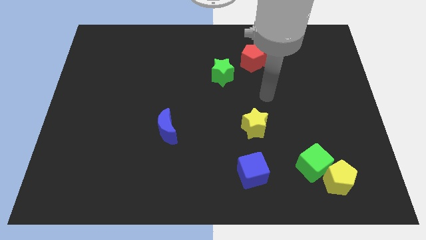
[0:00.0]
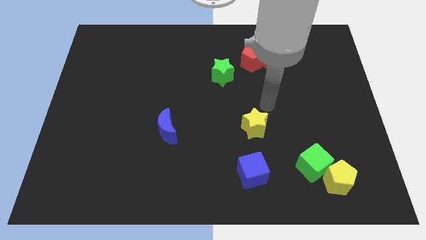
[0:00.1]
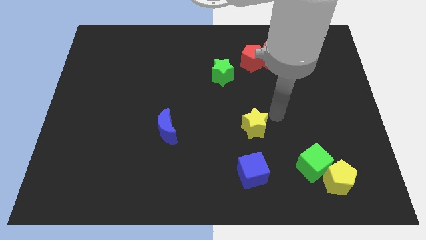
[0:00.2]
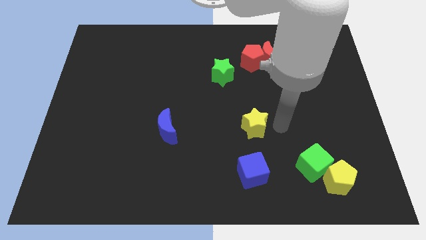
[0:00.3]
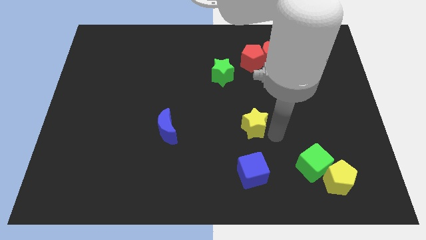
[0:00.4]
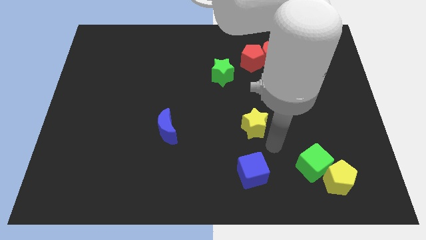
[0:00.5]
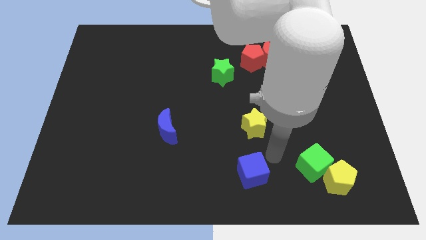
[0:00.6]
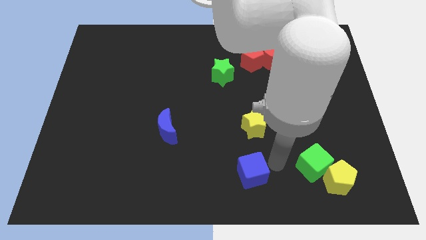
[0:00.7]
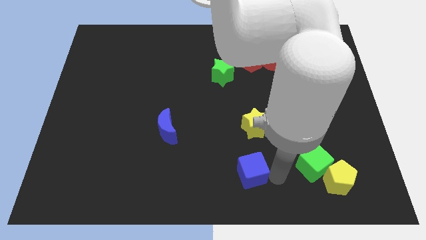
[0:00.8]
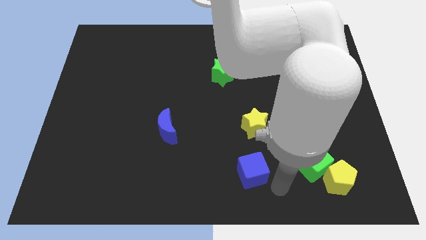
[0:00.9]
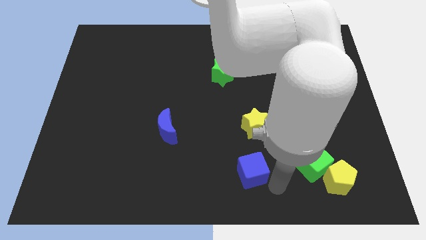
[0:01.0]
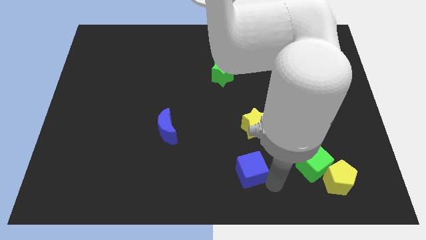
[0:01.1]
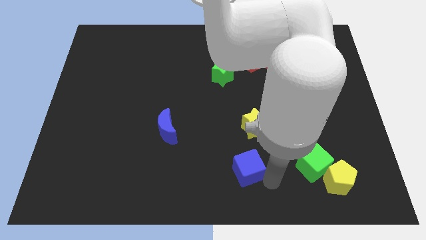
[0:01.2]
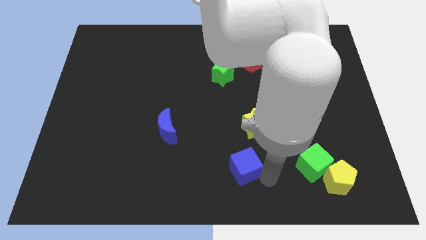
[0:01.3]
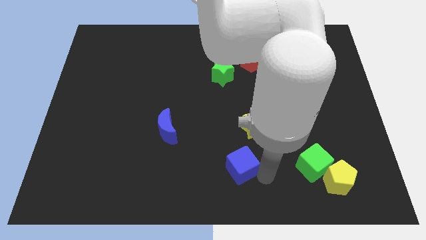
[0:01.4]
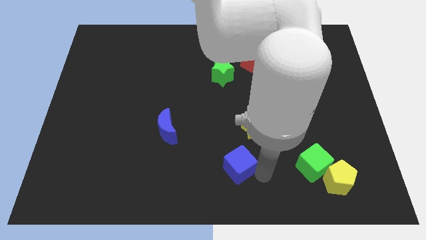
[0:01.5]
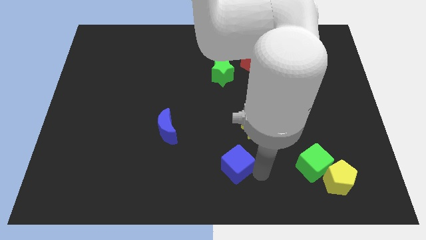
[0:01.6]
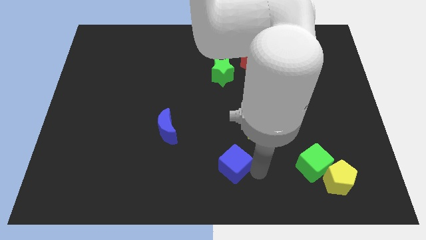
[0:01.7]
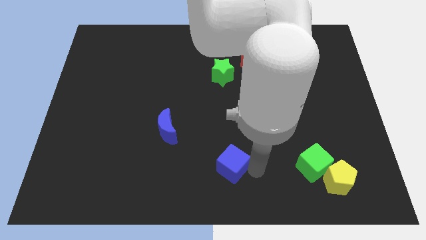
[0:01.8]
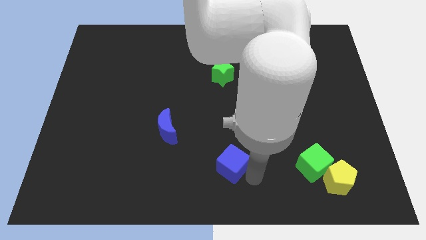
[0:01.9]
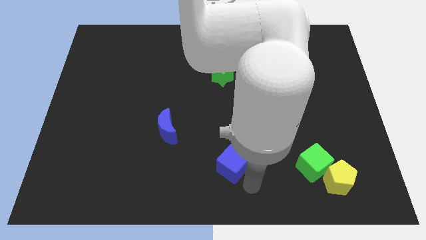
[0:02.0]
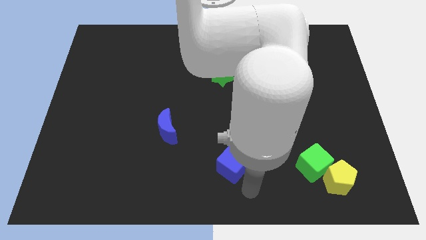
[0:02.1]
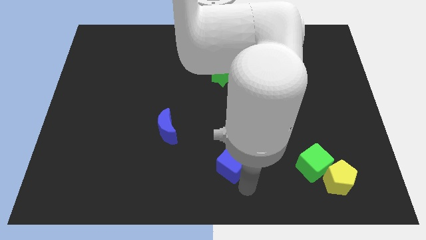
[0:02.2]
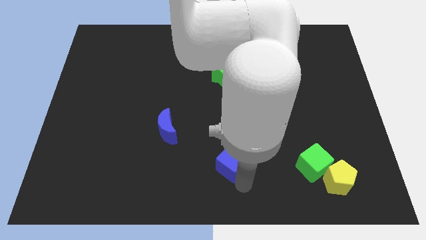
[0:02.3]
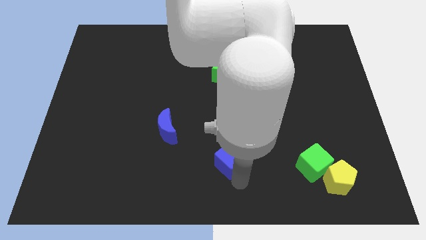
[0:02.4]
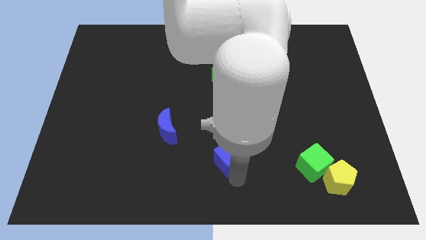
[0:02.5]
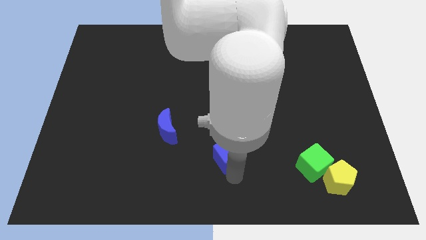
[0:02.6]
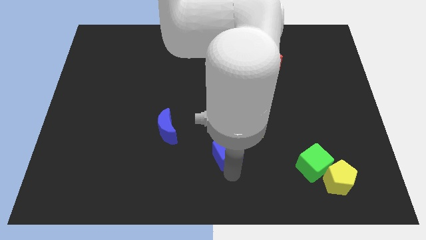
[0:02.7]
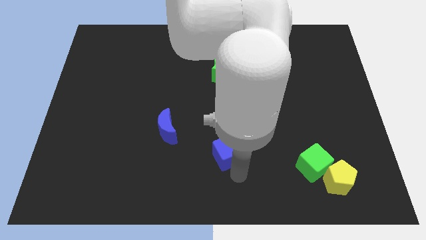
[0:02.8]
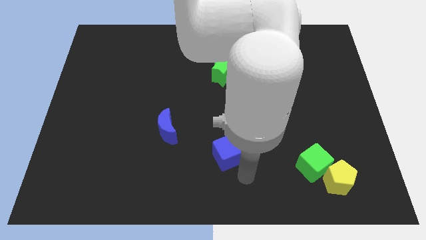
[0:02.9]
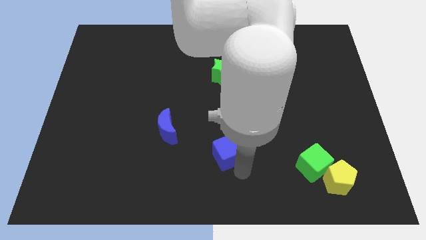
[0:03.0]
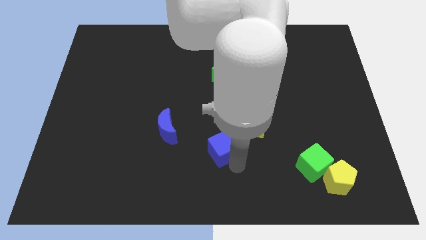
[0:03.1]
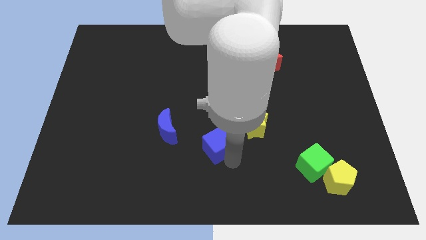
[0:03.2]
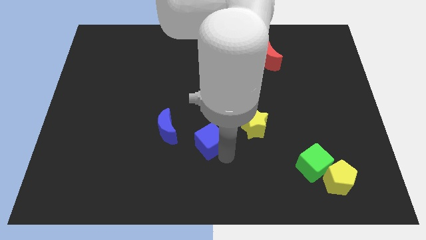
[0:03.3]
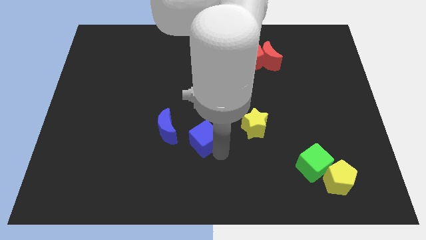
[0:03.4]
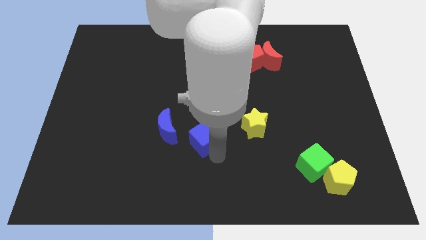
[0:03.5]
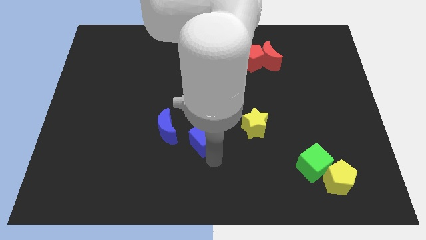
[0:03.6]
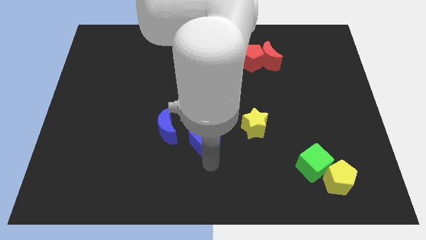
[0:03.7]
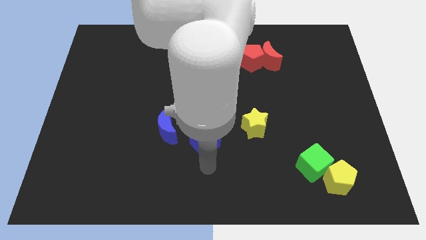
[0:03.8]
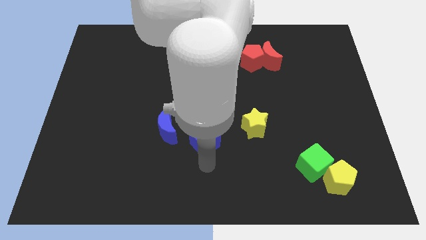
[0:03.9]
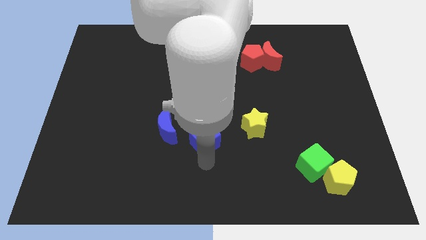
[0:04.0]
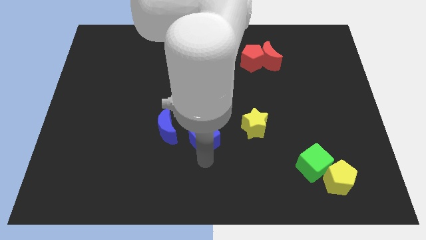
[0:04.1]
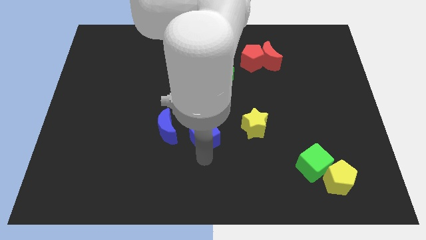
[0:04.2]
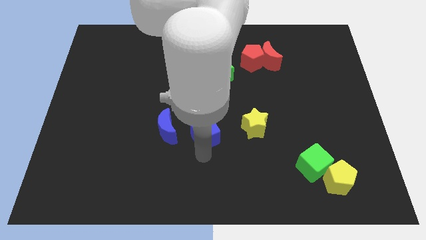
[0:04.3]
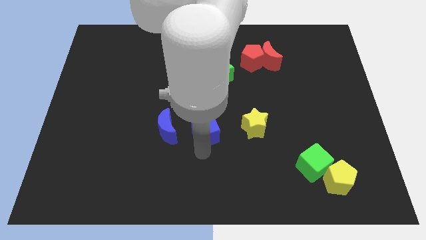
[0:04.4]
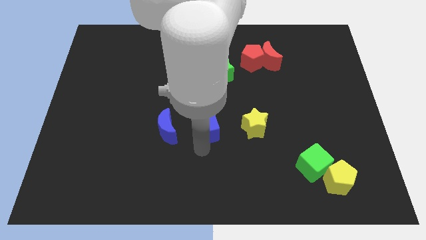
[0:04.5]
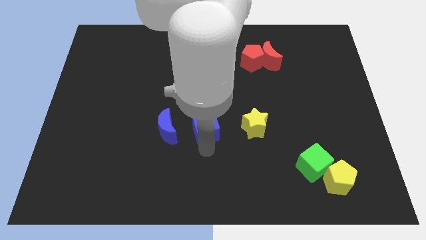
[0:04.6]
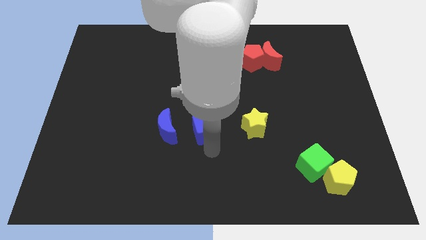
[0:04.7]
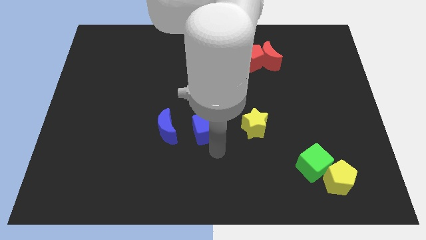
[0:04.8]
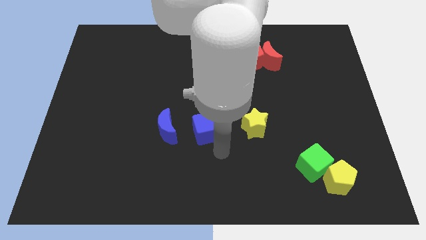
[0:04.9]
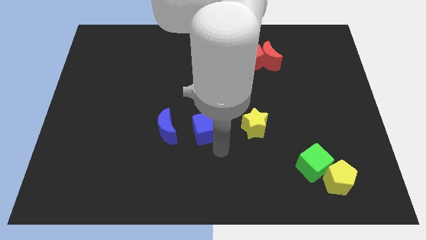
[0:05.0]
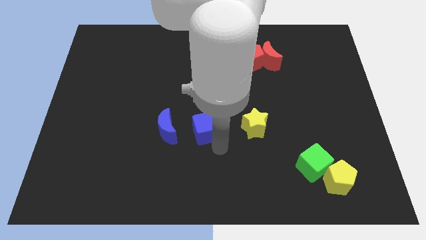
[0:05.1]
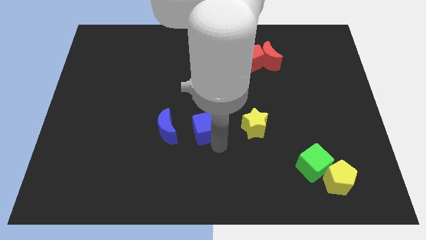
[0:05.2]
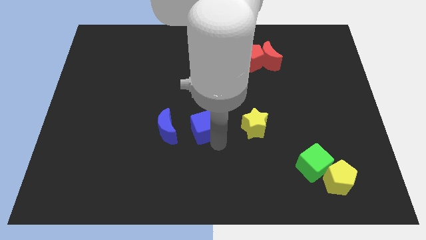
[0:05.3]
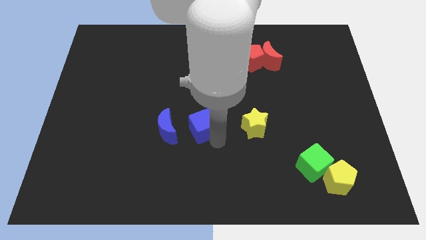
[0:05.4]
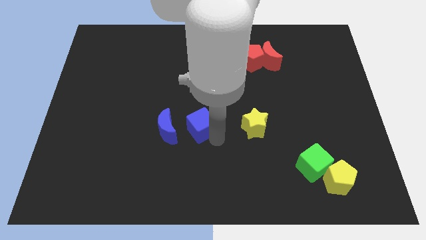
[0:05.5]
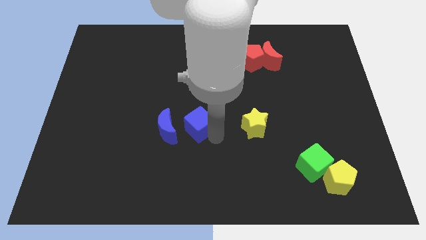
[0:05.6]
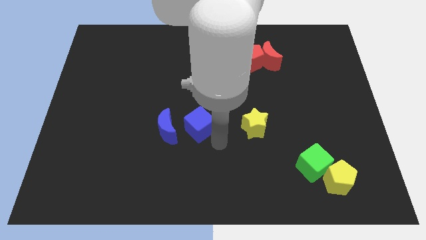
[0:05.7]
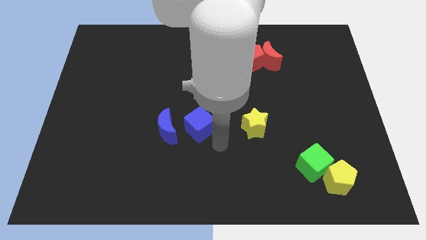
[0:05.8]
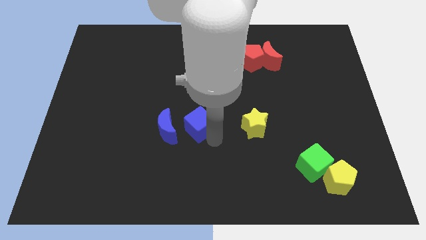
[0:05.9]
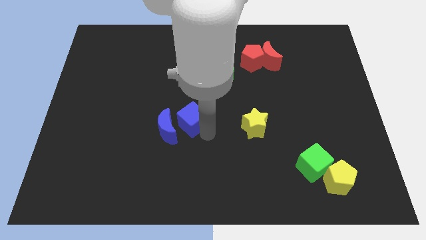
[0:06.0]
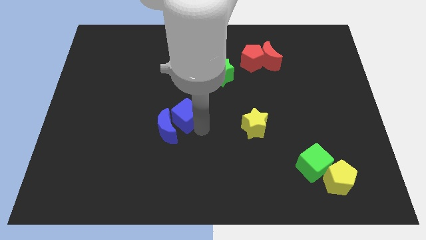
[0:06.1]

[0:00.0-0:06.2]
move the blue cube up and then left

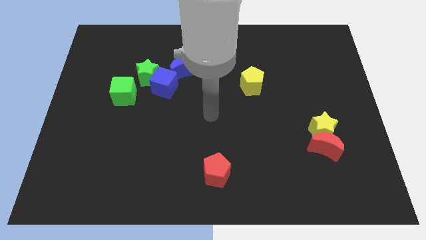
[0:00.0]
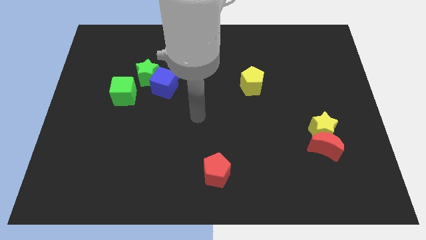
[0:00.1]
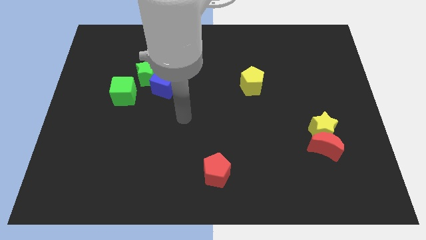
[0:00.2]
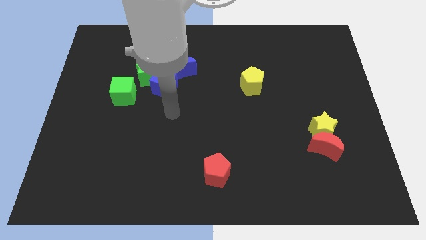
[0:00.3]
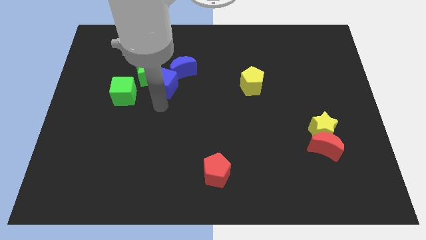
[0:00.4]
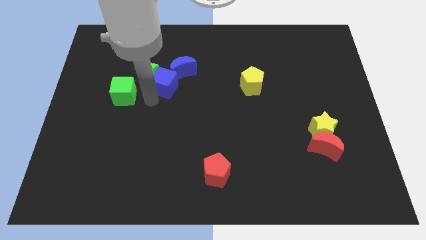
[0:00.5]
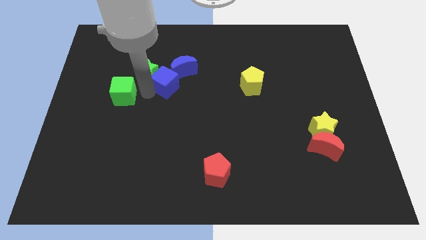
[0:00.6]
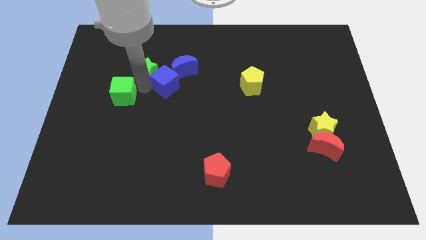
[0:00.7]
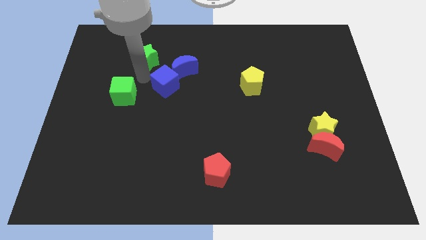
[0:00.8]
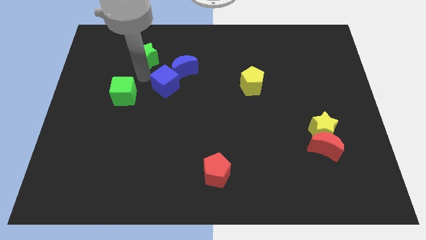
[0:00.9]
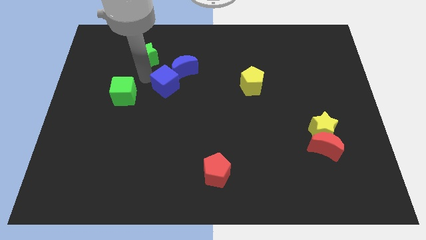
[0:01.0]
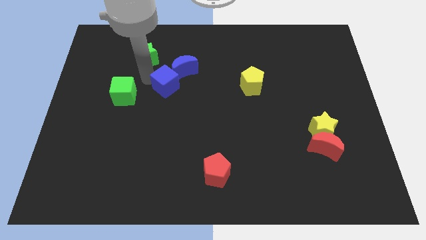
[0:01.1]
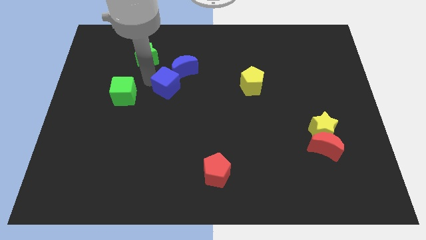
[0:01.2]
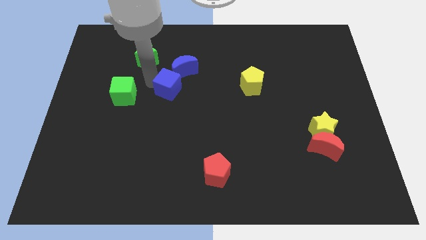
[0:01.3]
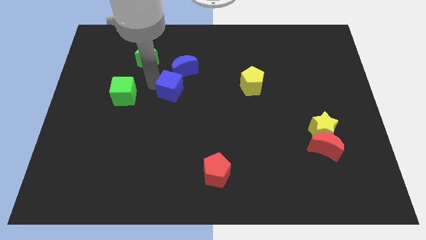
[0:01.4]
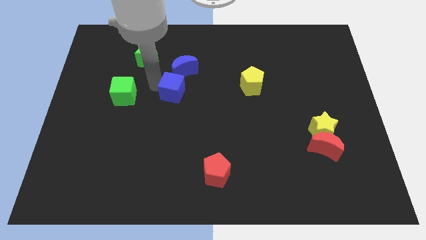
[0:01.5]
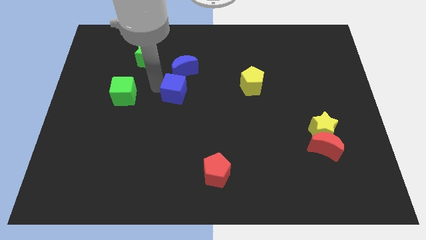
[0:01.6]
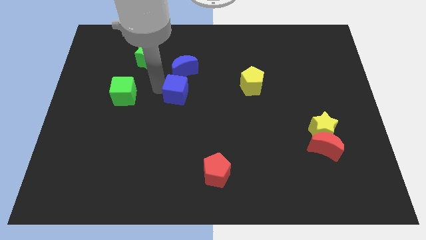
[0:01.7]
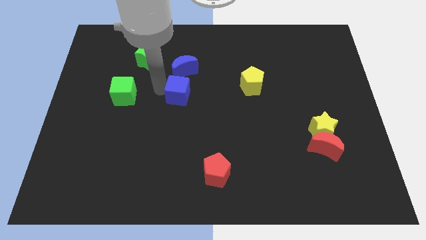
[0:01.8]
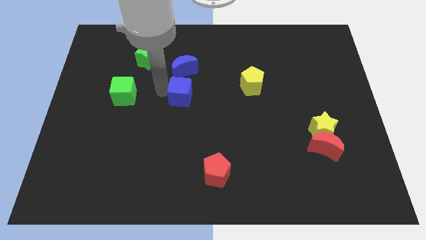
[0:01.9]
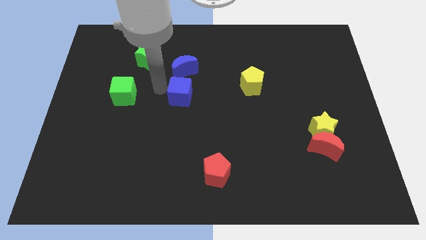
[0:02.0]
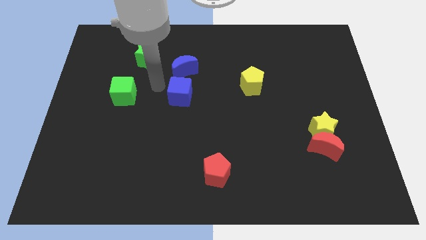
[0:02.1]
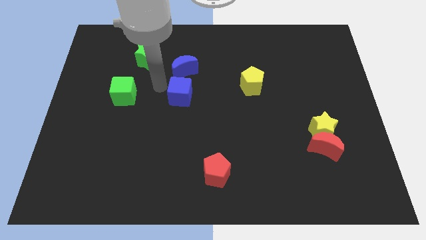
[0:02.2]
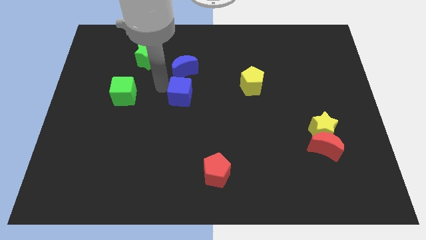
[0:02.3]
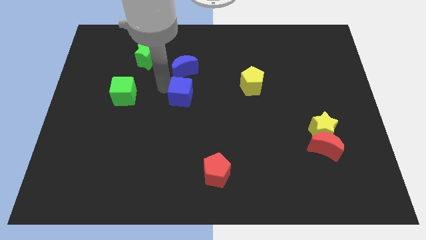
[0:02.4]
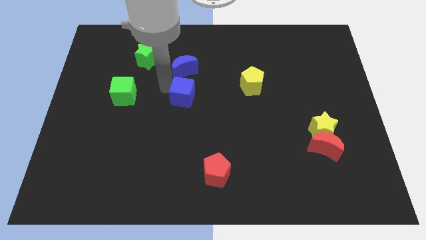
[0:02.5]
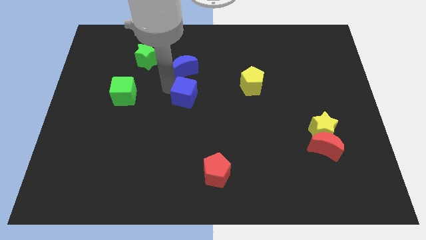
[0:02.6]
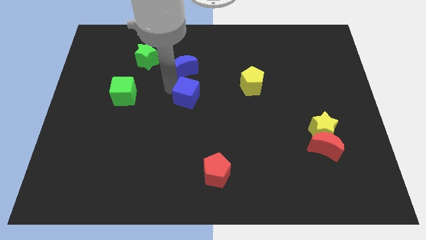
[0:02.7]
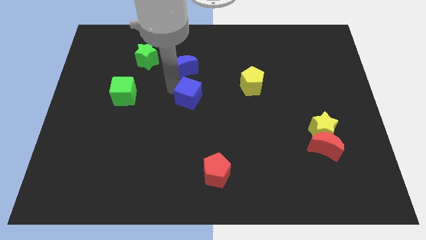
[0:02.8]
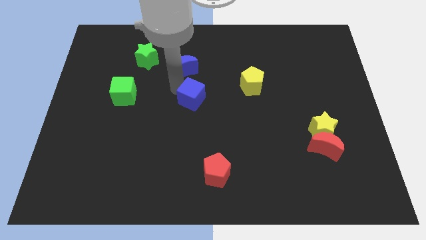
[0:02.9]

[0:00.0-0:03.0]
slide the blue cube down and then to the right a bit
